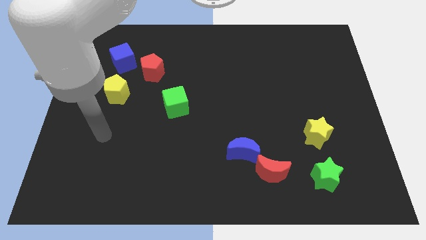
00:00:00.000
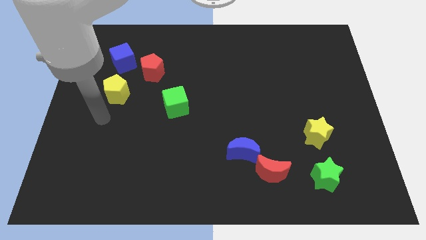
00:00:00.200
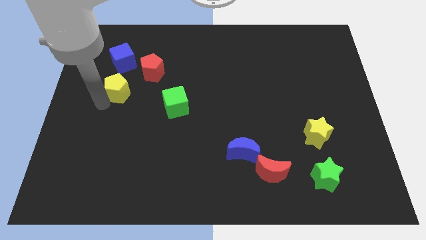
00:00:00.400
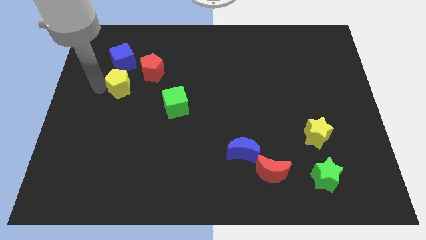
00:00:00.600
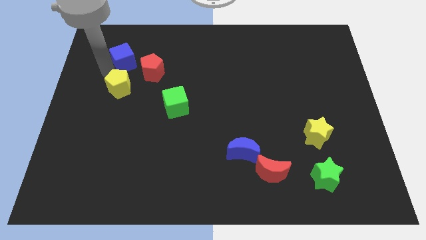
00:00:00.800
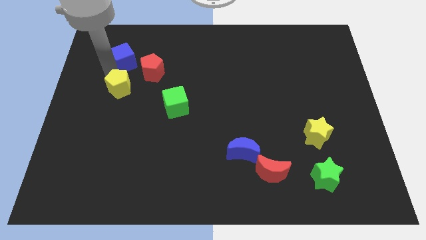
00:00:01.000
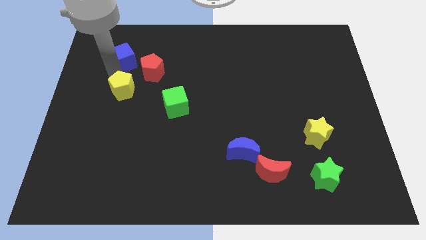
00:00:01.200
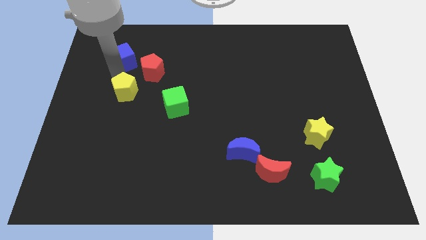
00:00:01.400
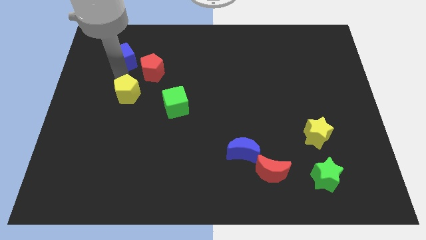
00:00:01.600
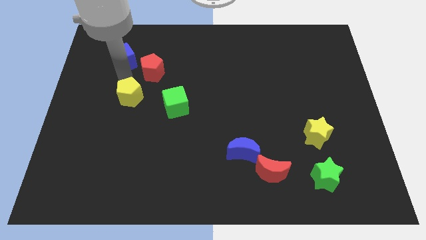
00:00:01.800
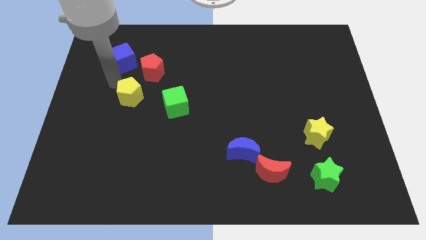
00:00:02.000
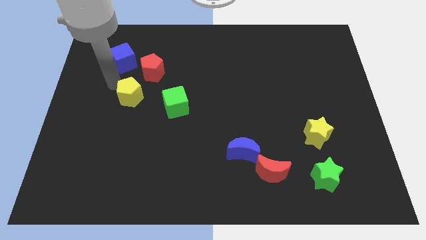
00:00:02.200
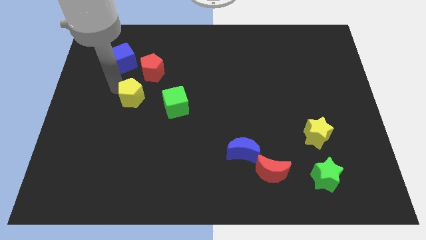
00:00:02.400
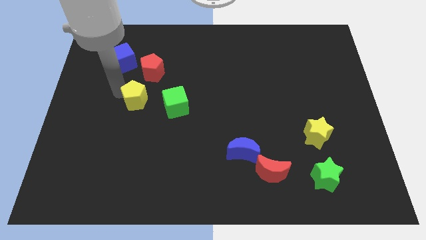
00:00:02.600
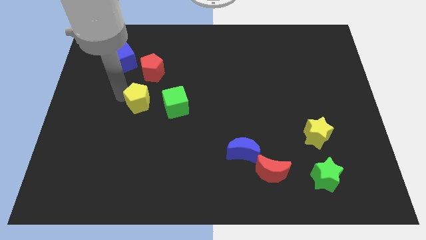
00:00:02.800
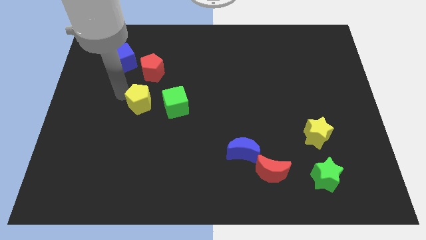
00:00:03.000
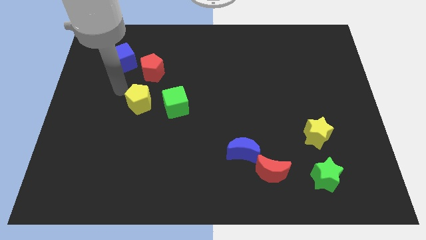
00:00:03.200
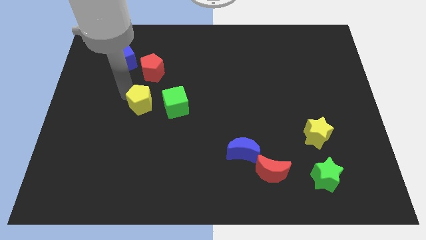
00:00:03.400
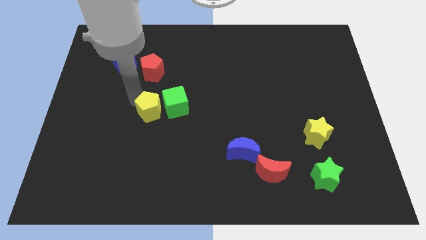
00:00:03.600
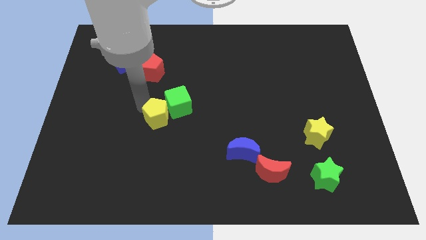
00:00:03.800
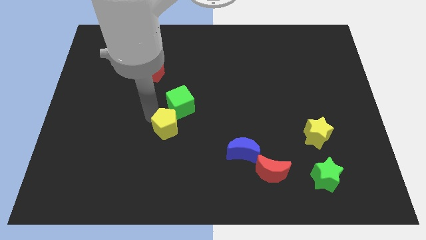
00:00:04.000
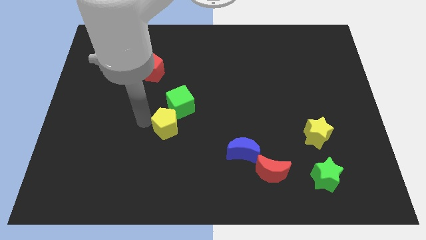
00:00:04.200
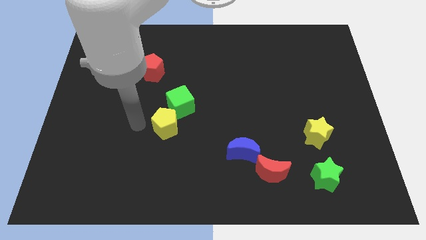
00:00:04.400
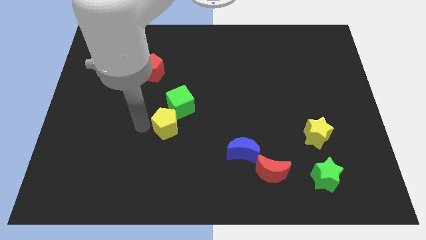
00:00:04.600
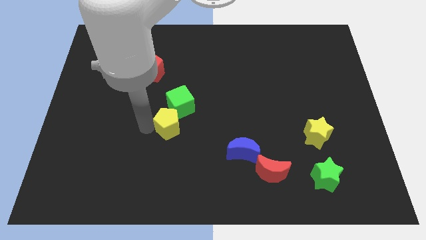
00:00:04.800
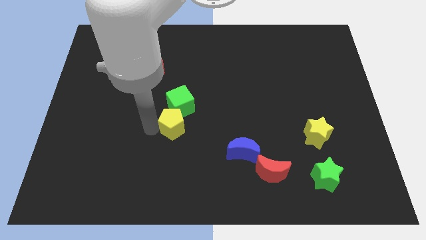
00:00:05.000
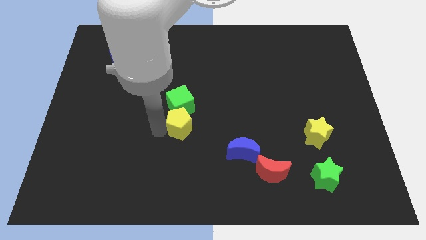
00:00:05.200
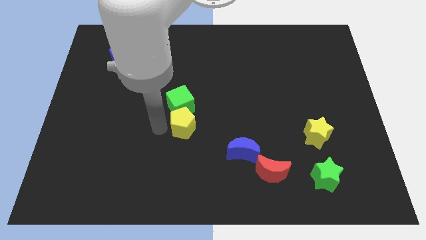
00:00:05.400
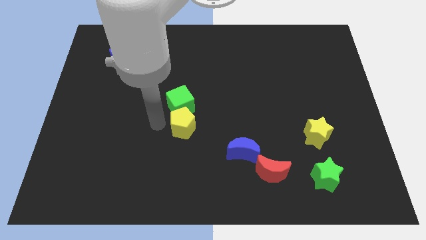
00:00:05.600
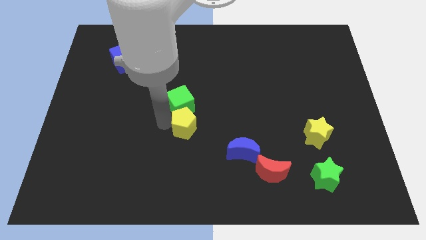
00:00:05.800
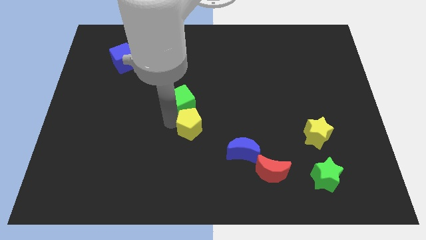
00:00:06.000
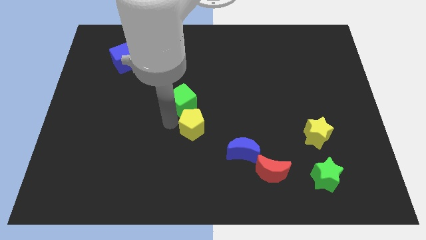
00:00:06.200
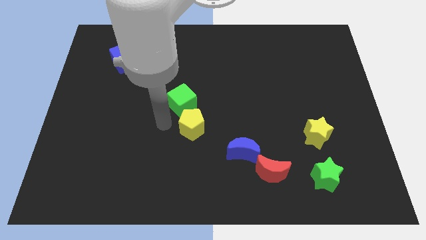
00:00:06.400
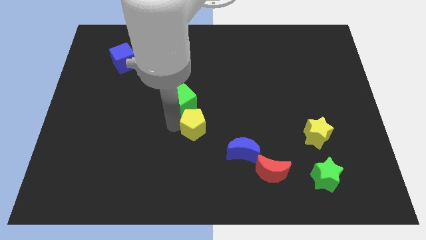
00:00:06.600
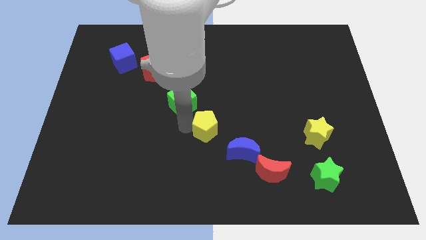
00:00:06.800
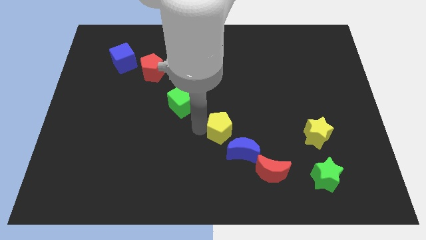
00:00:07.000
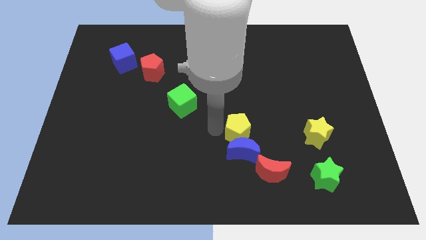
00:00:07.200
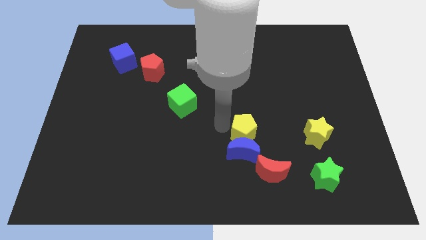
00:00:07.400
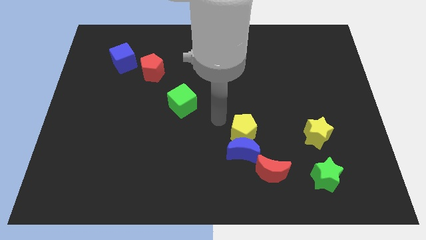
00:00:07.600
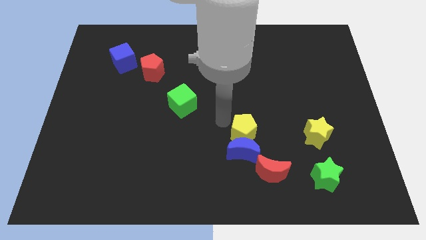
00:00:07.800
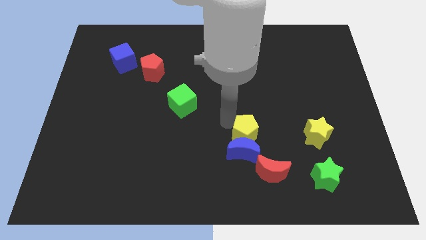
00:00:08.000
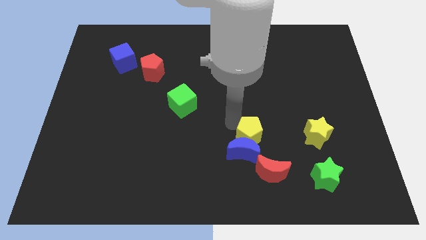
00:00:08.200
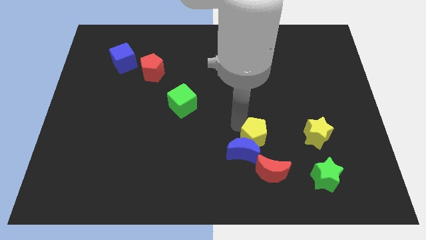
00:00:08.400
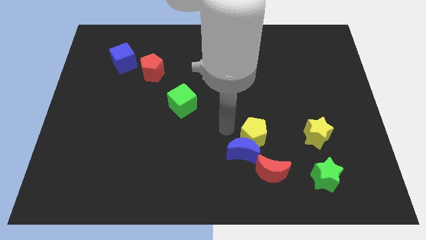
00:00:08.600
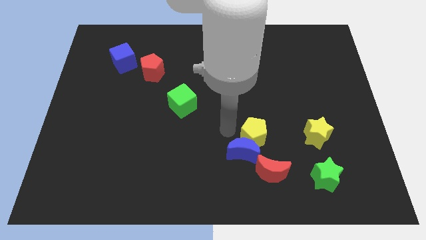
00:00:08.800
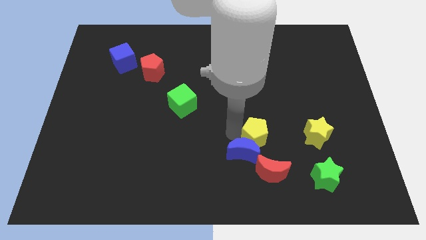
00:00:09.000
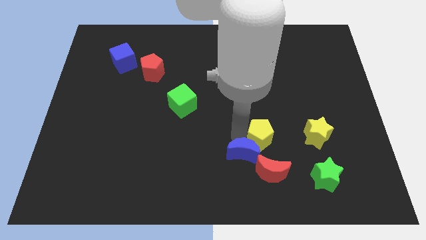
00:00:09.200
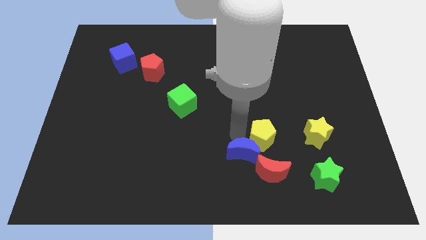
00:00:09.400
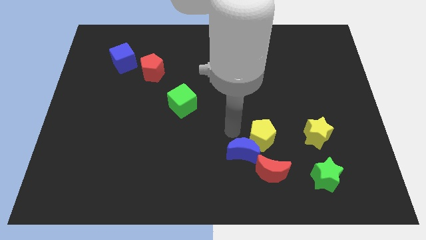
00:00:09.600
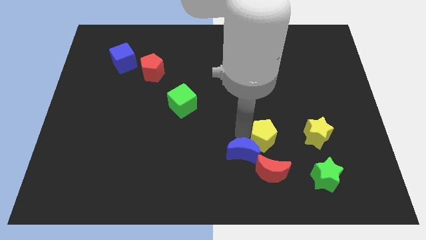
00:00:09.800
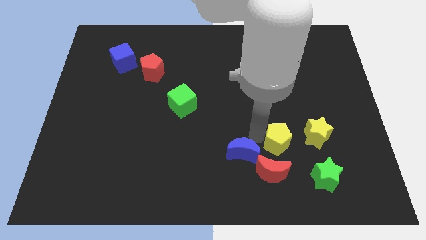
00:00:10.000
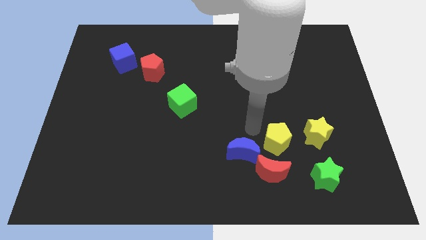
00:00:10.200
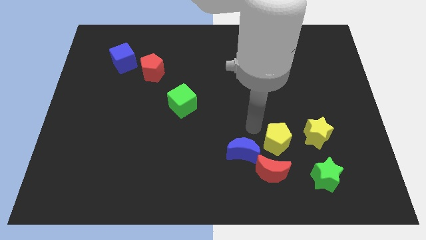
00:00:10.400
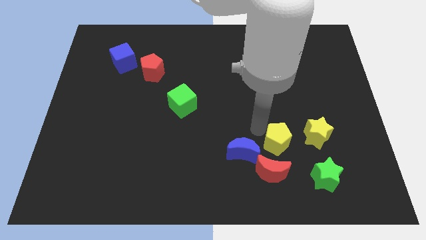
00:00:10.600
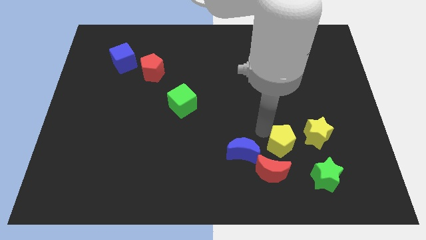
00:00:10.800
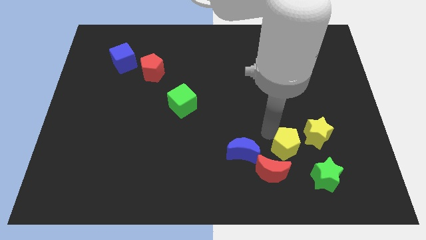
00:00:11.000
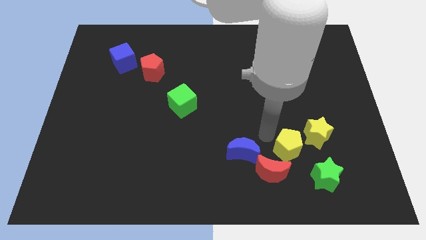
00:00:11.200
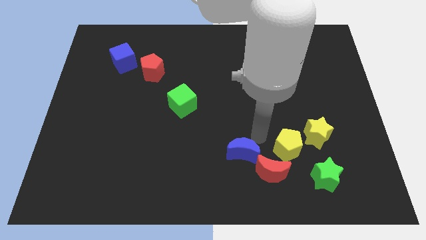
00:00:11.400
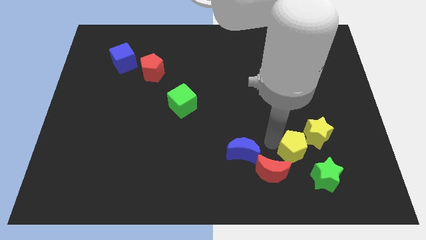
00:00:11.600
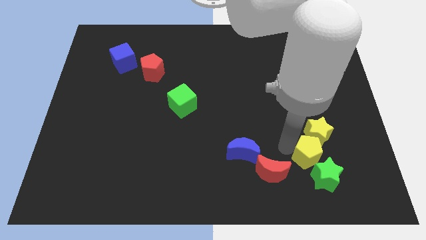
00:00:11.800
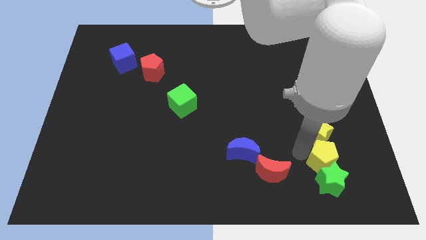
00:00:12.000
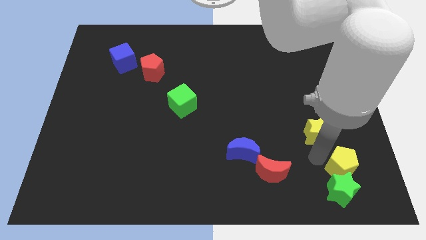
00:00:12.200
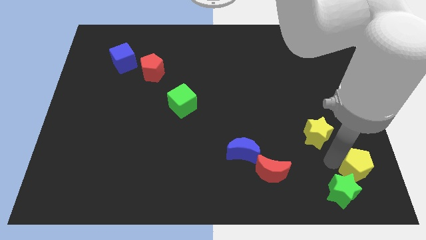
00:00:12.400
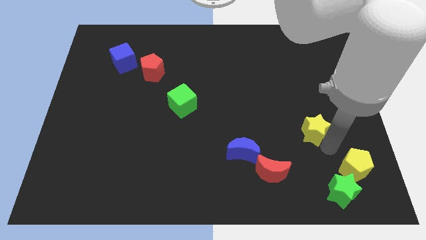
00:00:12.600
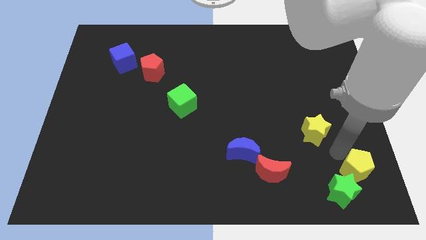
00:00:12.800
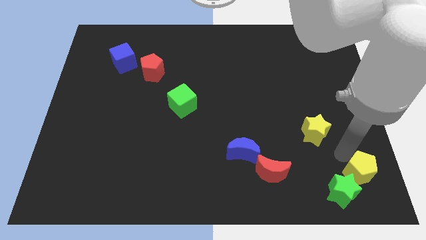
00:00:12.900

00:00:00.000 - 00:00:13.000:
put the yellow pentagon to the bottom right
